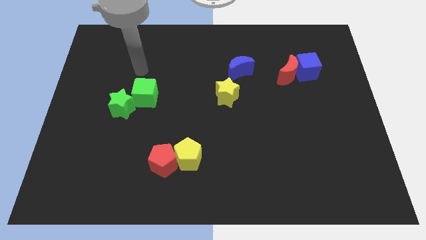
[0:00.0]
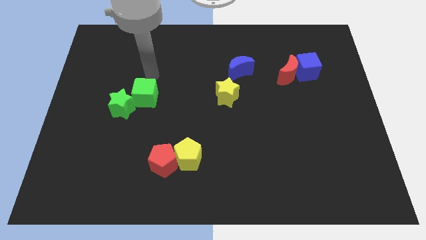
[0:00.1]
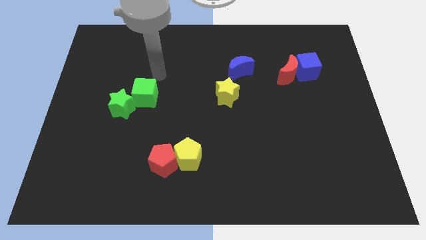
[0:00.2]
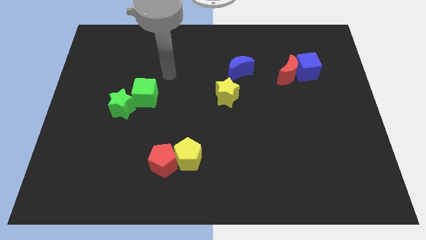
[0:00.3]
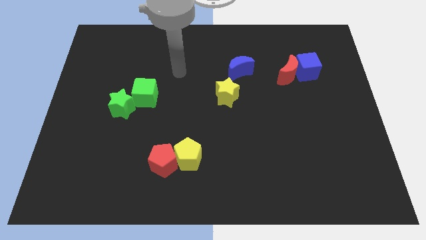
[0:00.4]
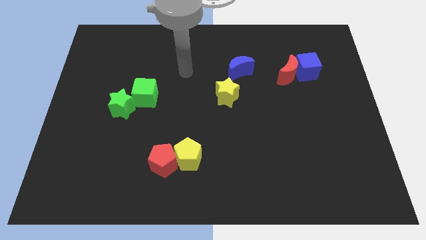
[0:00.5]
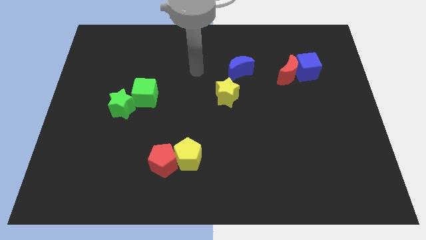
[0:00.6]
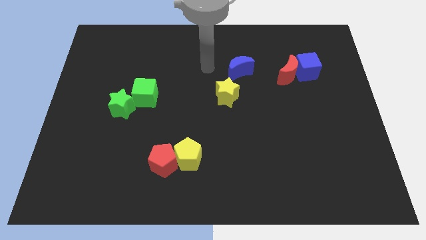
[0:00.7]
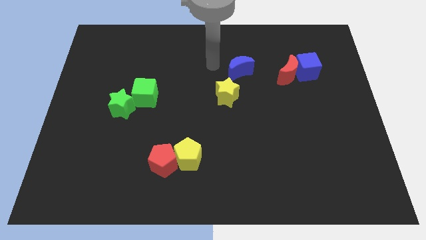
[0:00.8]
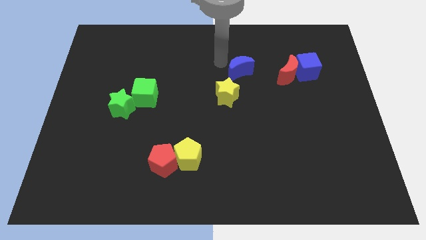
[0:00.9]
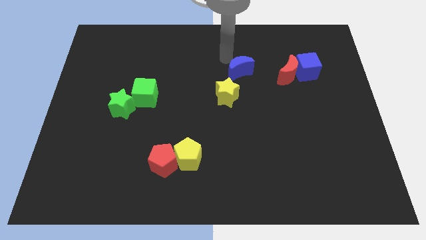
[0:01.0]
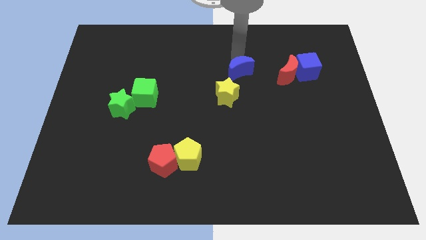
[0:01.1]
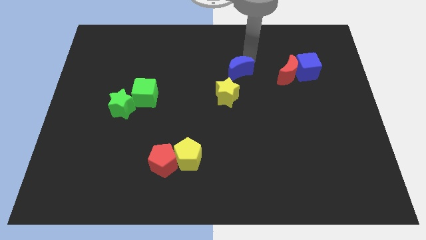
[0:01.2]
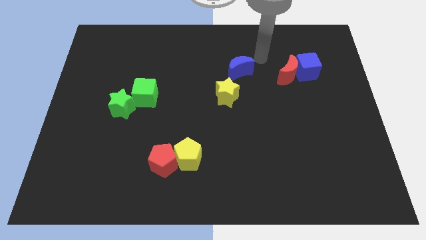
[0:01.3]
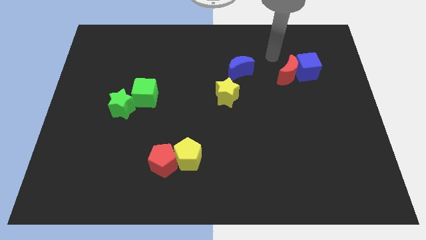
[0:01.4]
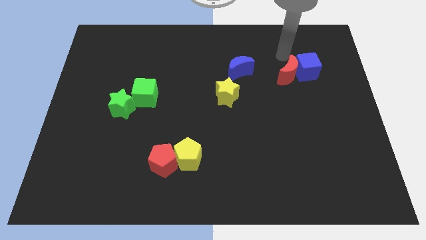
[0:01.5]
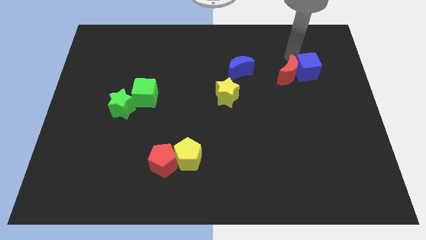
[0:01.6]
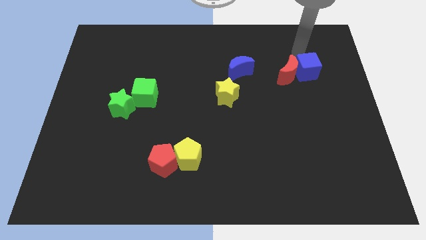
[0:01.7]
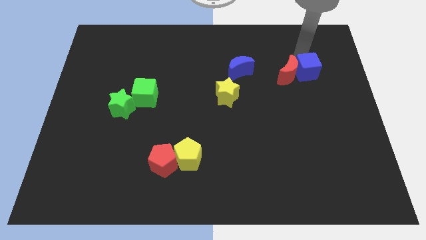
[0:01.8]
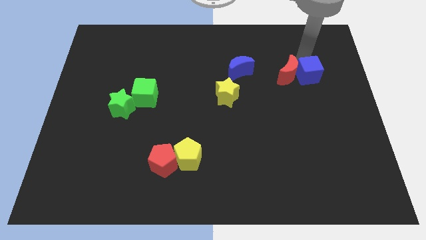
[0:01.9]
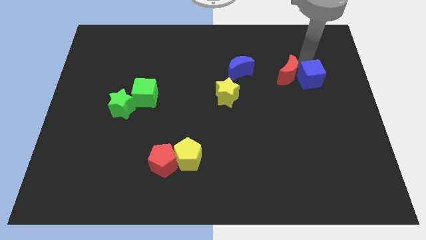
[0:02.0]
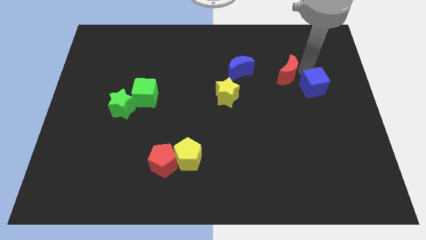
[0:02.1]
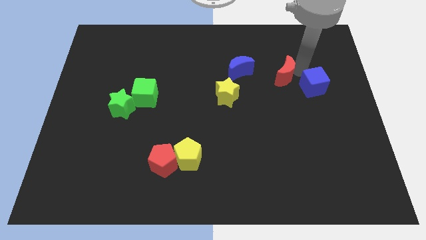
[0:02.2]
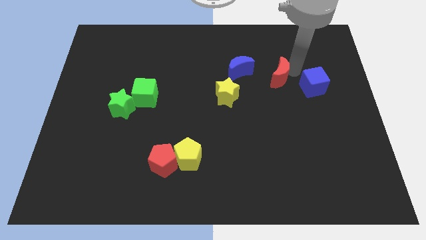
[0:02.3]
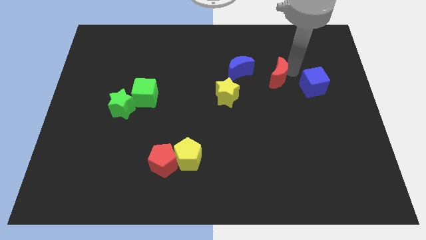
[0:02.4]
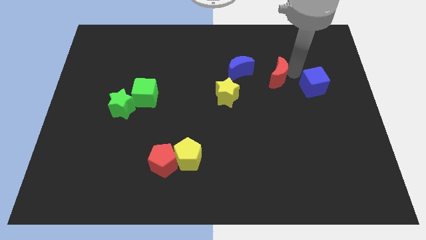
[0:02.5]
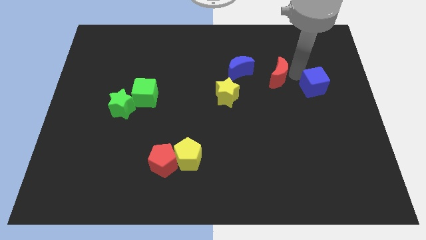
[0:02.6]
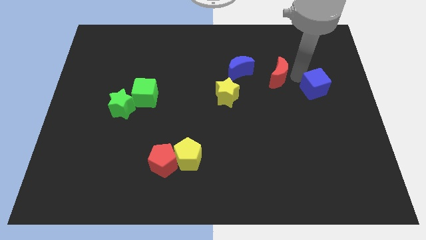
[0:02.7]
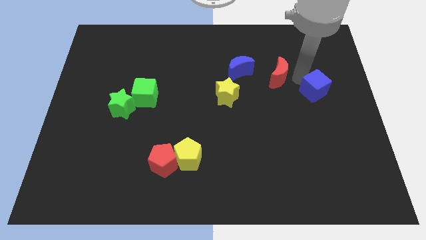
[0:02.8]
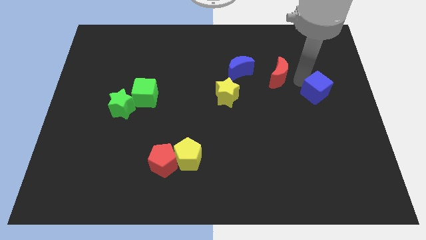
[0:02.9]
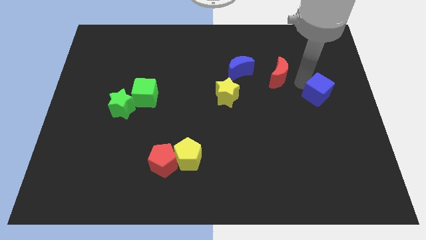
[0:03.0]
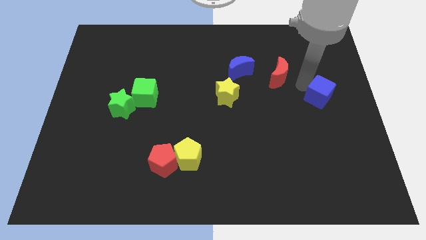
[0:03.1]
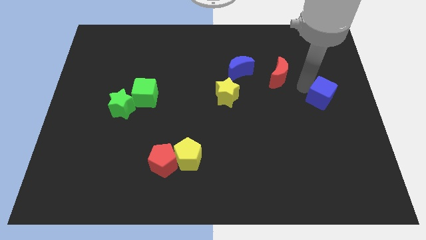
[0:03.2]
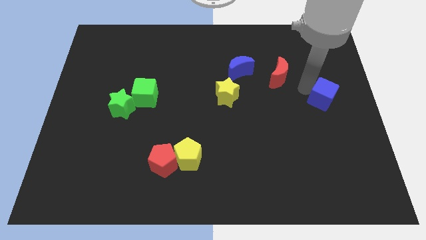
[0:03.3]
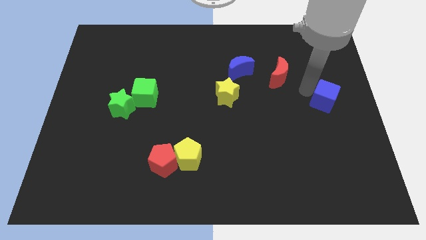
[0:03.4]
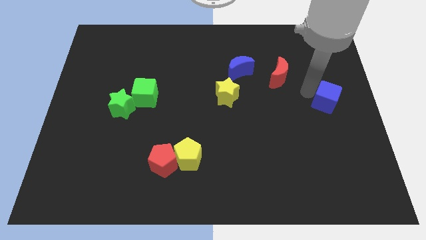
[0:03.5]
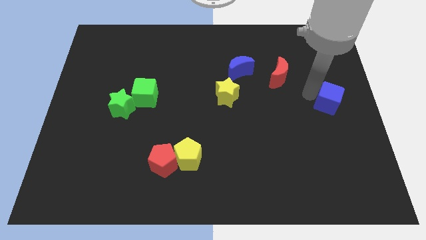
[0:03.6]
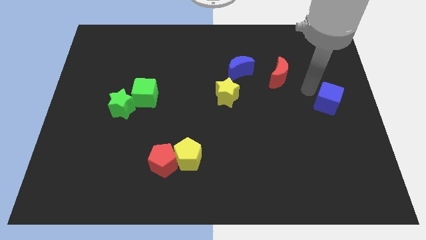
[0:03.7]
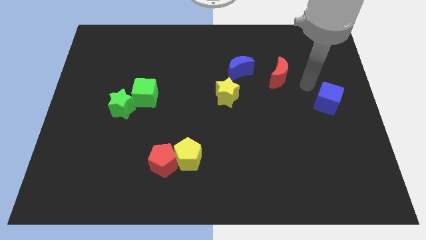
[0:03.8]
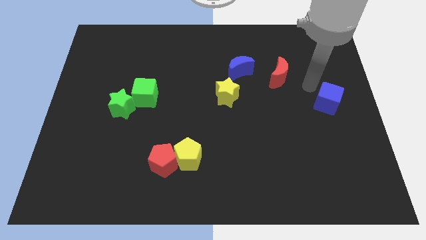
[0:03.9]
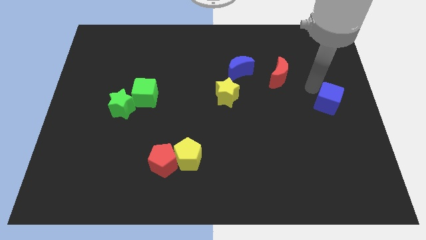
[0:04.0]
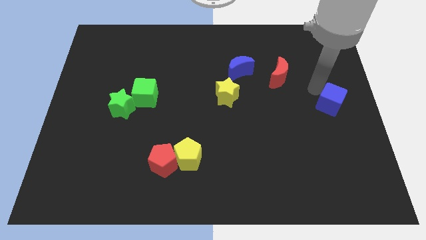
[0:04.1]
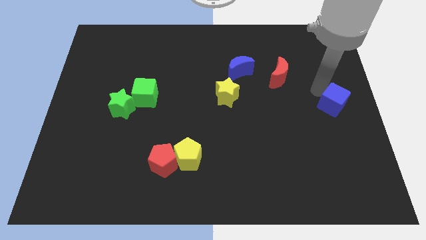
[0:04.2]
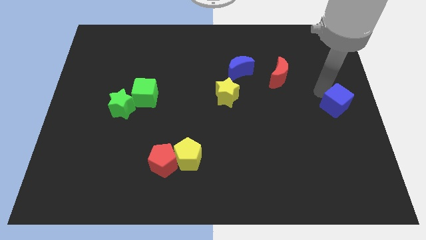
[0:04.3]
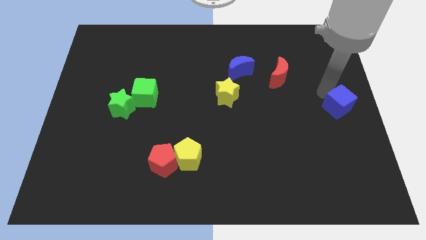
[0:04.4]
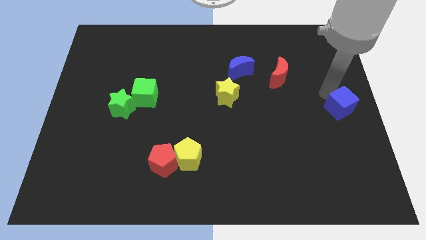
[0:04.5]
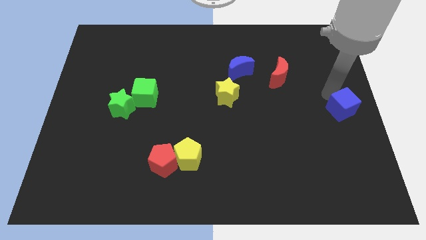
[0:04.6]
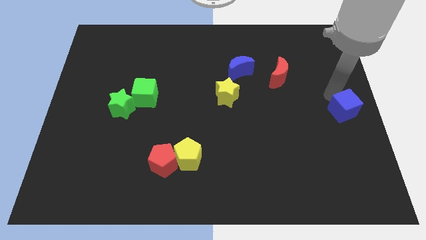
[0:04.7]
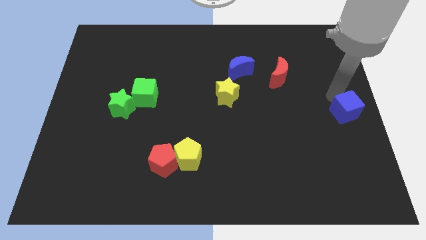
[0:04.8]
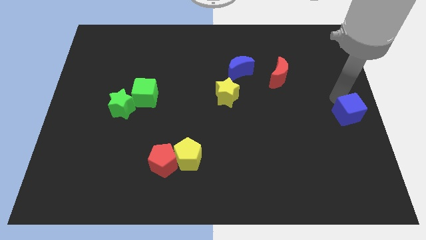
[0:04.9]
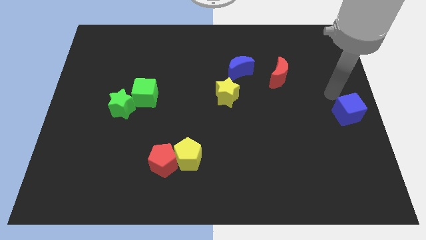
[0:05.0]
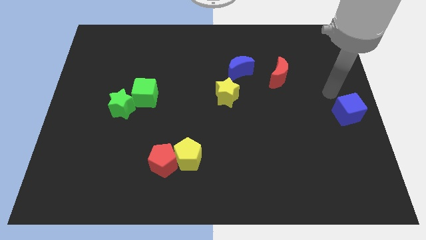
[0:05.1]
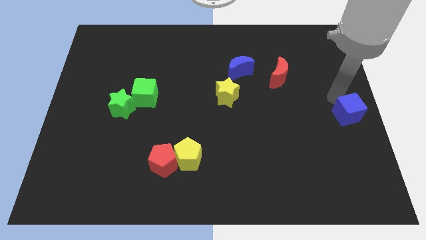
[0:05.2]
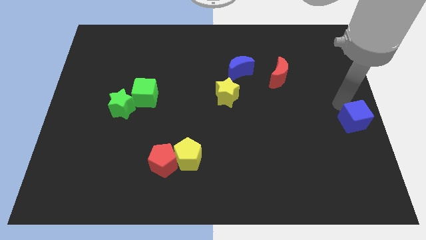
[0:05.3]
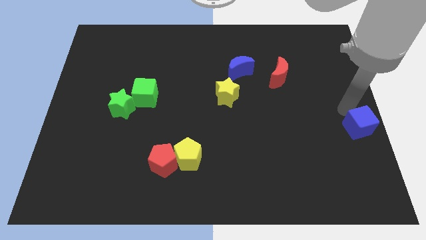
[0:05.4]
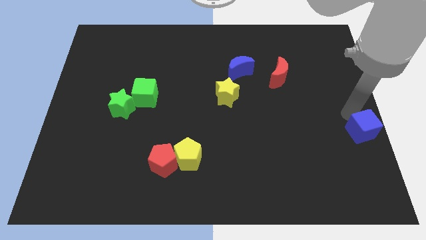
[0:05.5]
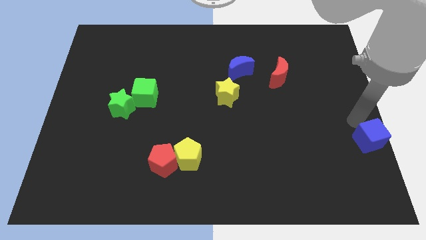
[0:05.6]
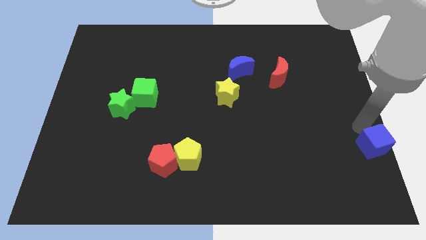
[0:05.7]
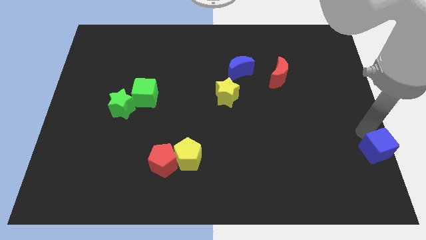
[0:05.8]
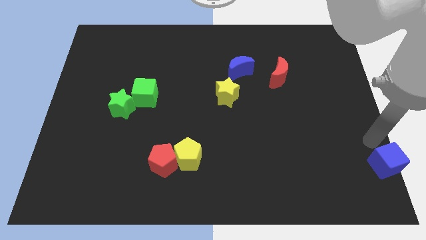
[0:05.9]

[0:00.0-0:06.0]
slide the blue cube to the bottom right of the board

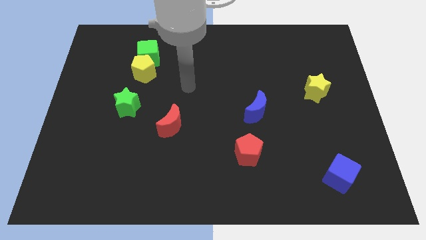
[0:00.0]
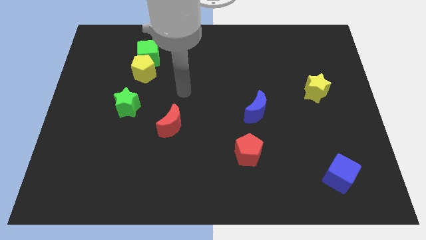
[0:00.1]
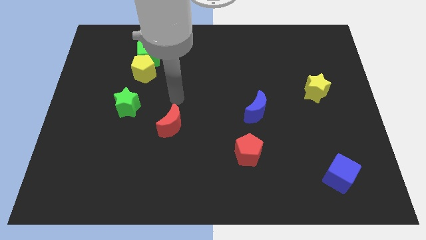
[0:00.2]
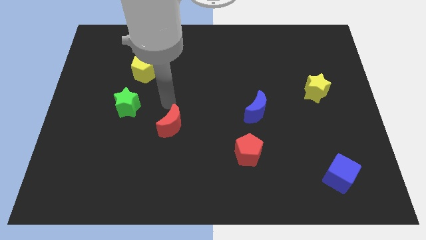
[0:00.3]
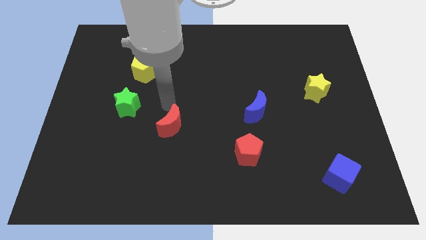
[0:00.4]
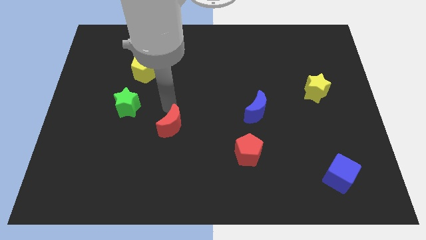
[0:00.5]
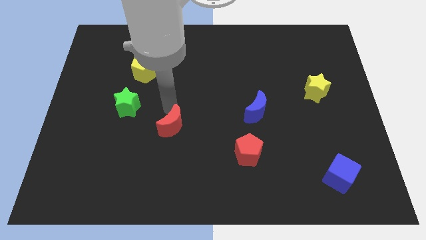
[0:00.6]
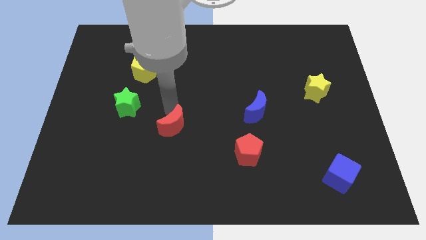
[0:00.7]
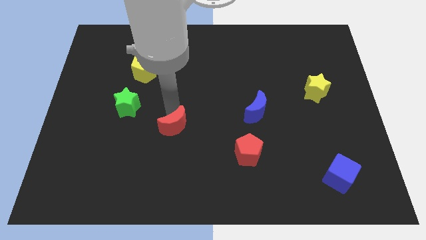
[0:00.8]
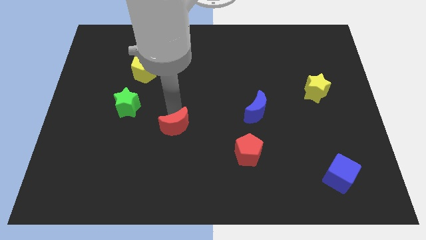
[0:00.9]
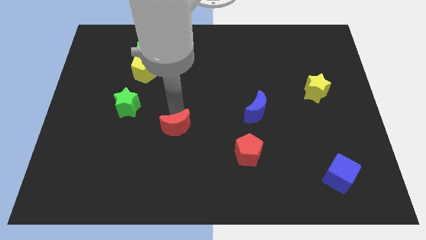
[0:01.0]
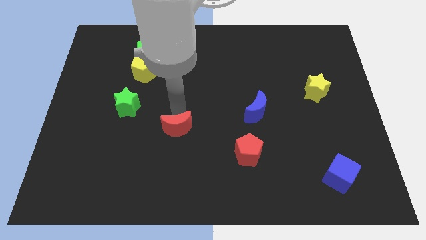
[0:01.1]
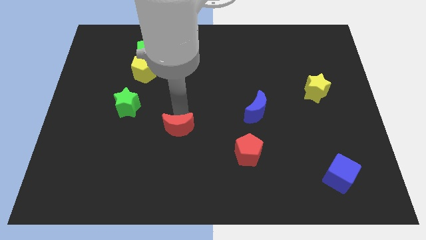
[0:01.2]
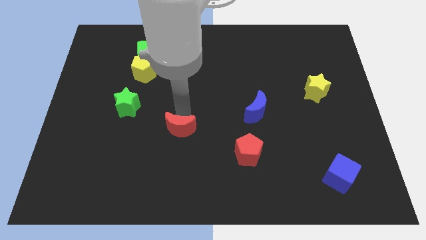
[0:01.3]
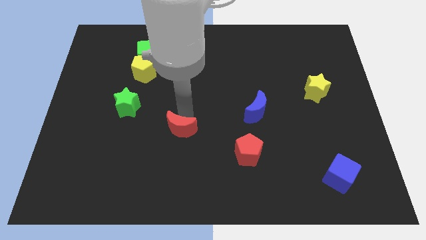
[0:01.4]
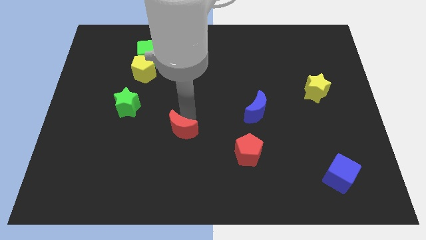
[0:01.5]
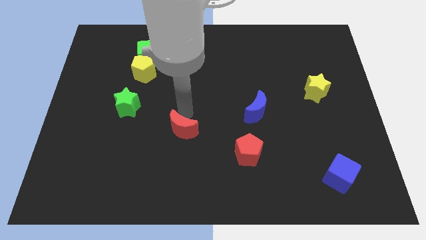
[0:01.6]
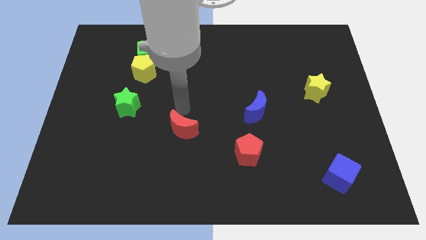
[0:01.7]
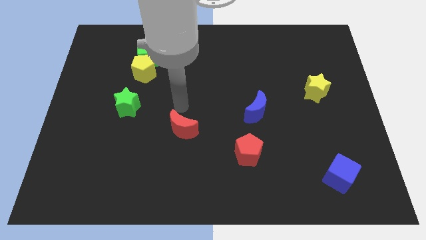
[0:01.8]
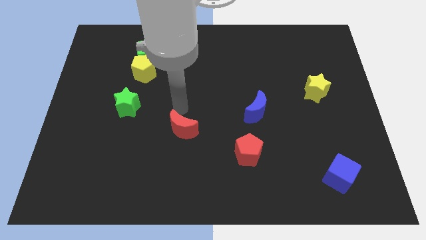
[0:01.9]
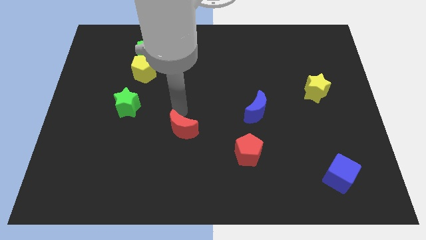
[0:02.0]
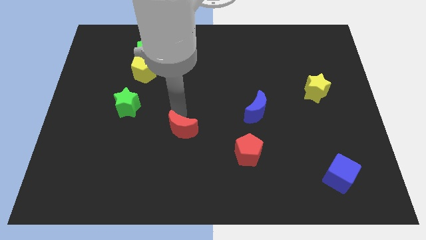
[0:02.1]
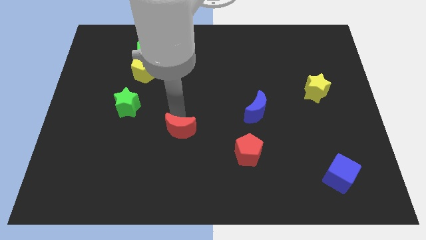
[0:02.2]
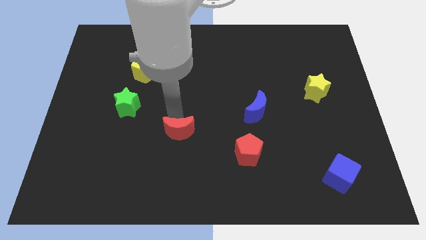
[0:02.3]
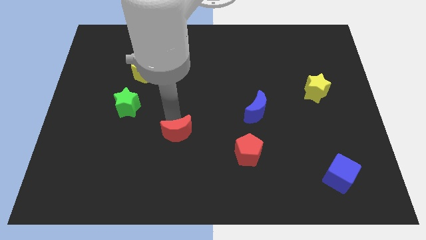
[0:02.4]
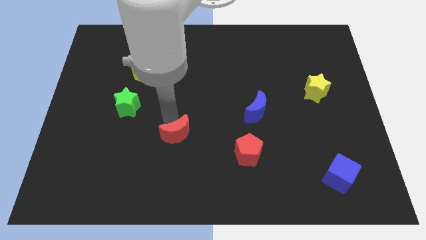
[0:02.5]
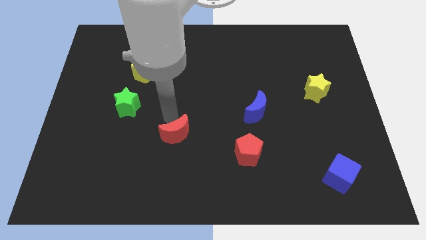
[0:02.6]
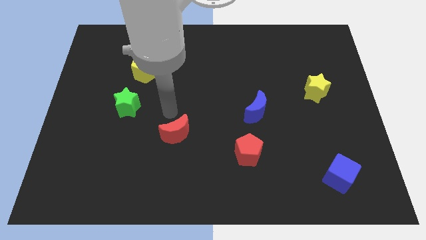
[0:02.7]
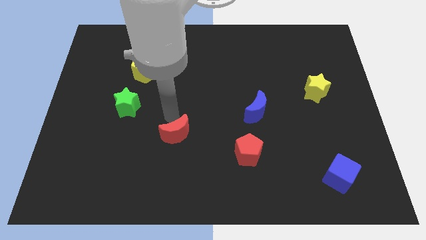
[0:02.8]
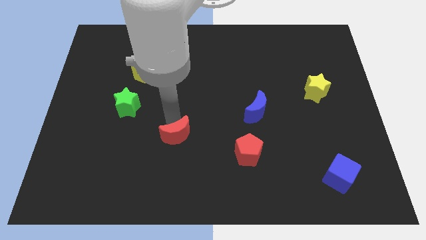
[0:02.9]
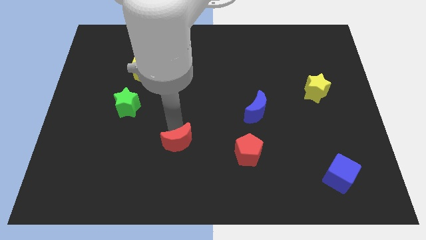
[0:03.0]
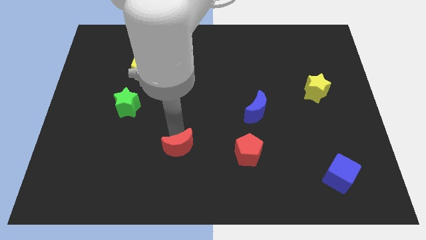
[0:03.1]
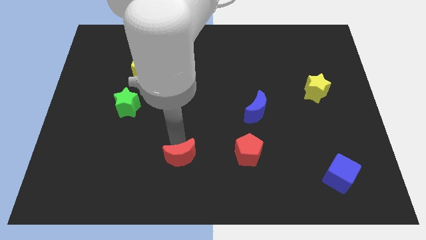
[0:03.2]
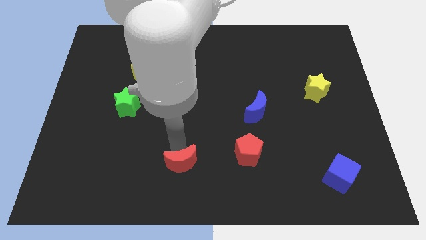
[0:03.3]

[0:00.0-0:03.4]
move the red moon to the bottom side
